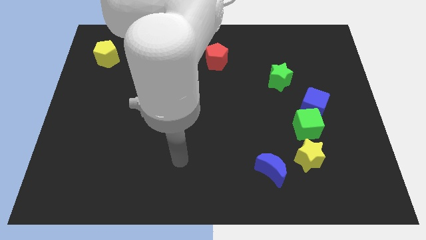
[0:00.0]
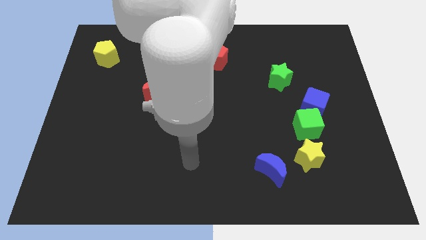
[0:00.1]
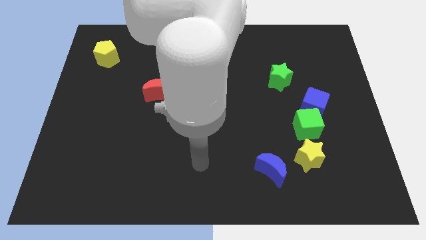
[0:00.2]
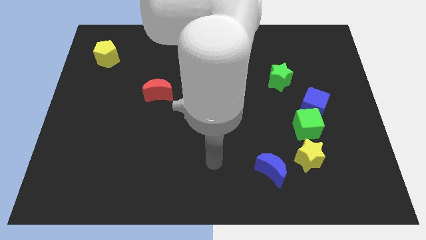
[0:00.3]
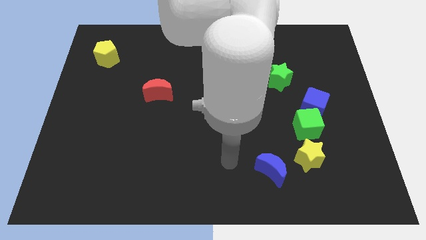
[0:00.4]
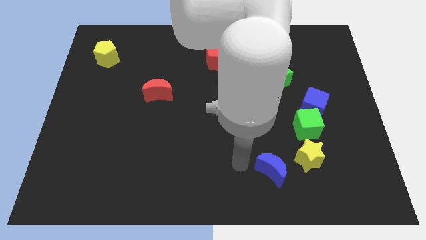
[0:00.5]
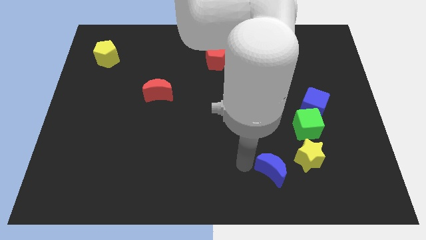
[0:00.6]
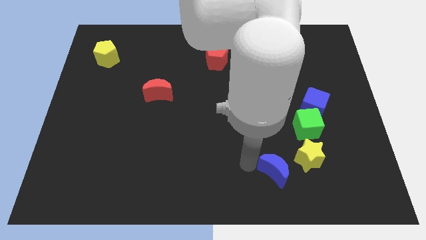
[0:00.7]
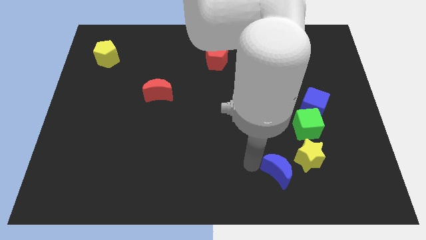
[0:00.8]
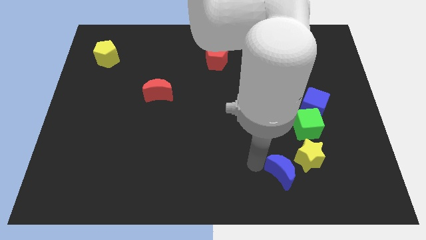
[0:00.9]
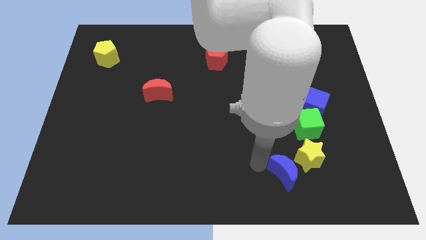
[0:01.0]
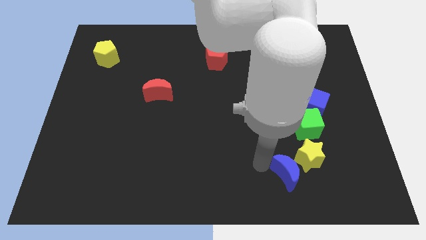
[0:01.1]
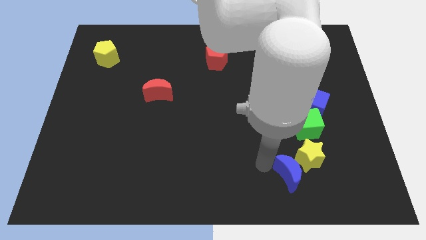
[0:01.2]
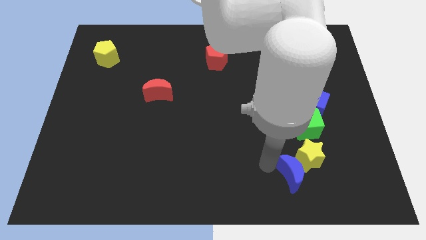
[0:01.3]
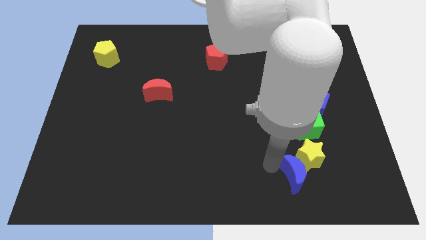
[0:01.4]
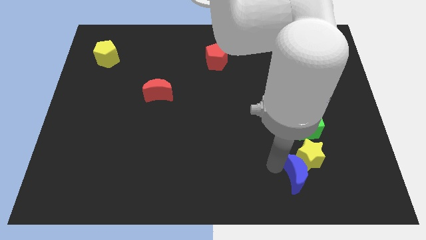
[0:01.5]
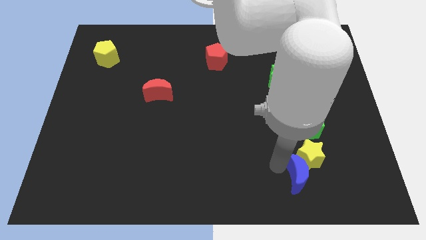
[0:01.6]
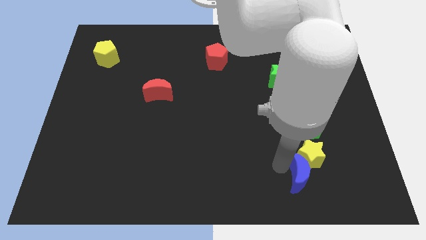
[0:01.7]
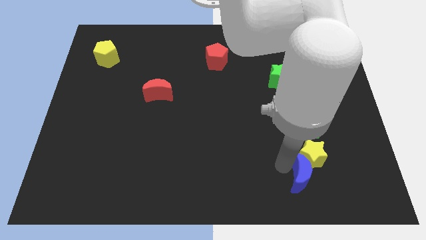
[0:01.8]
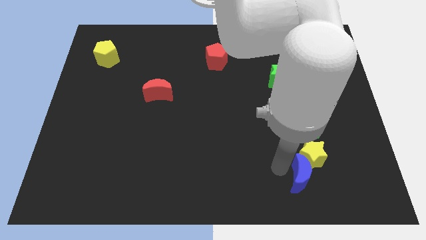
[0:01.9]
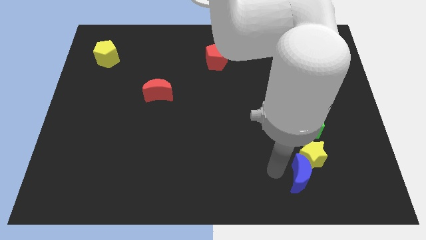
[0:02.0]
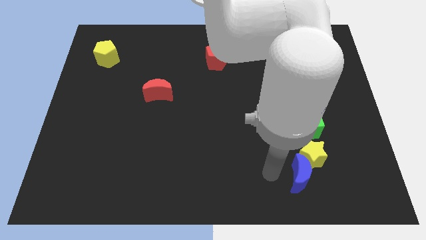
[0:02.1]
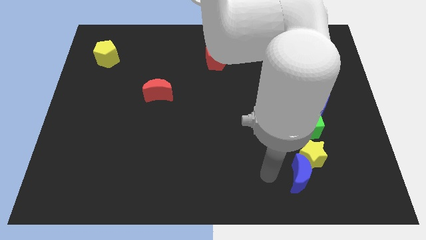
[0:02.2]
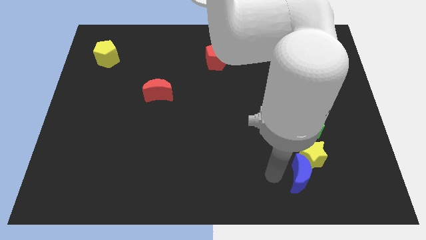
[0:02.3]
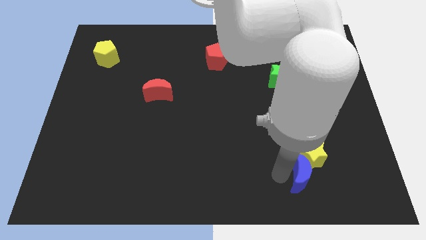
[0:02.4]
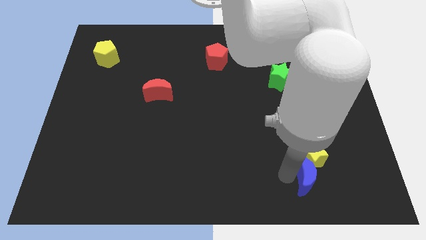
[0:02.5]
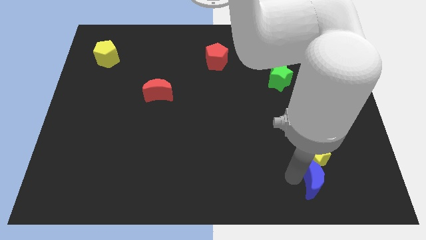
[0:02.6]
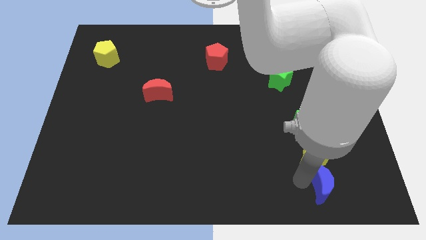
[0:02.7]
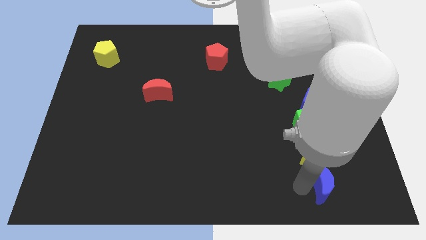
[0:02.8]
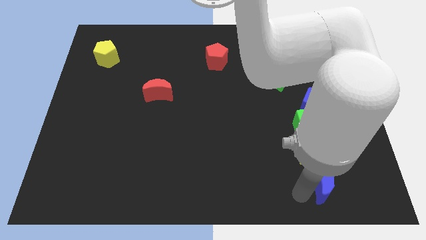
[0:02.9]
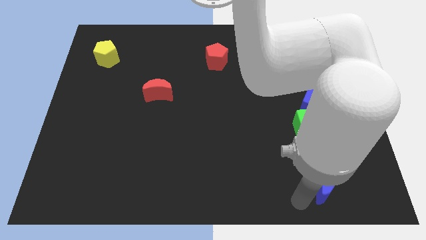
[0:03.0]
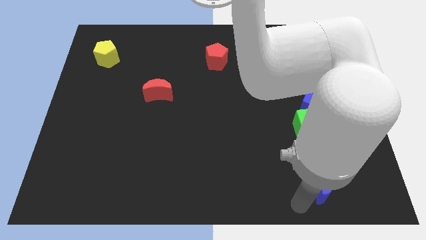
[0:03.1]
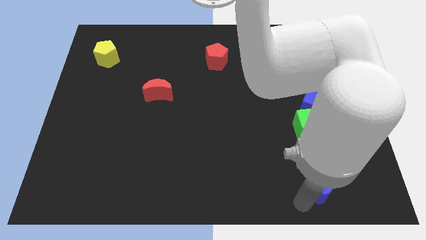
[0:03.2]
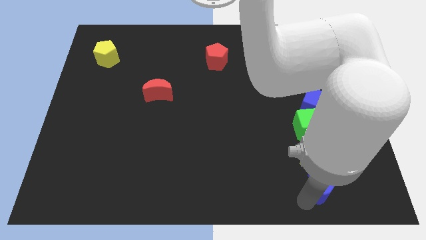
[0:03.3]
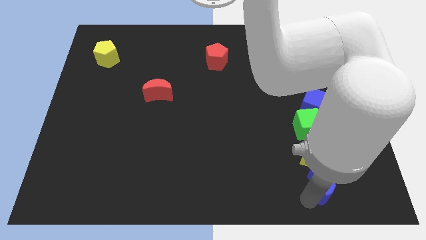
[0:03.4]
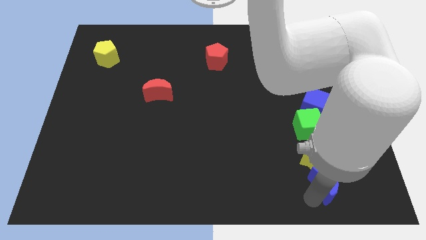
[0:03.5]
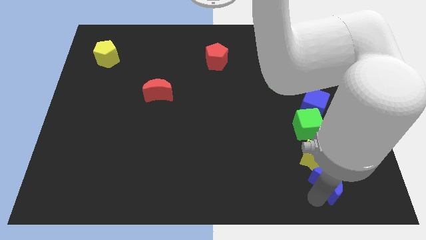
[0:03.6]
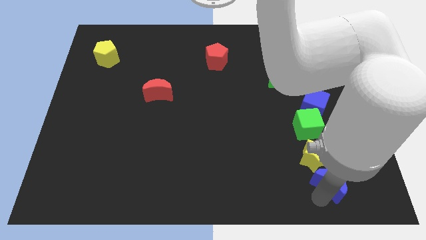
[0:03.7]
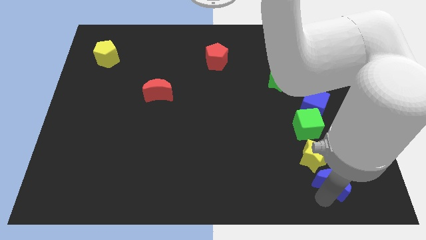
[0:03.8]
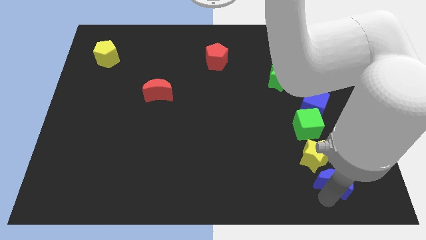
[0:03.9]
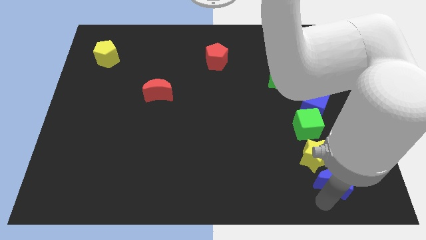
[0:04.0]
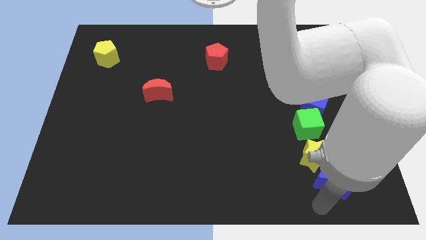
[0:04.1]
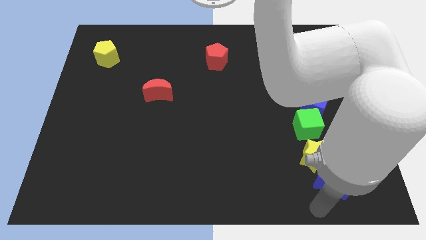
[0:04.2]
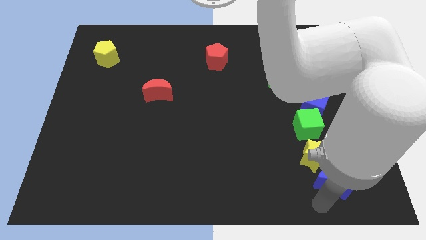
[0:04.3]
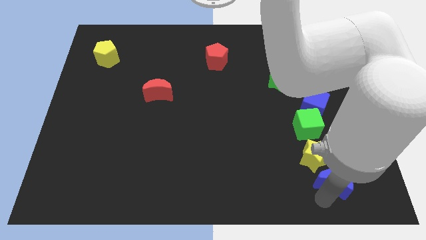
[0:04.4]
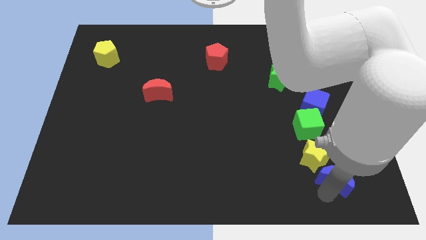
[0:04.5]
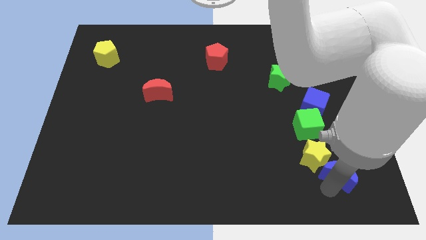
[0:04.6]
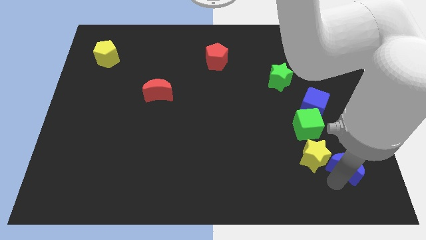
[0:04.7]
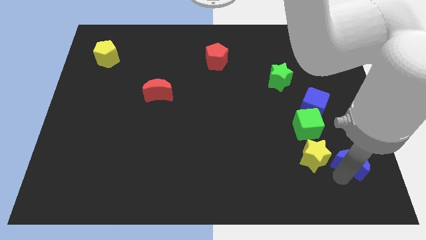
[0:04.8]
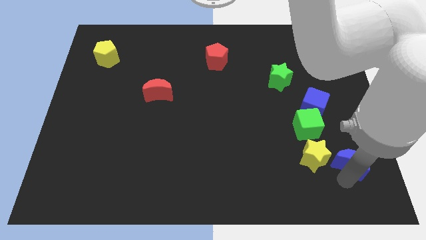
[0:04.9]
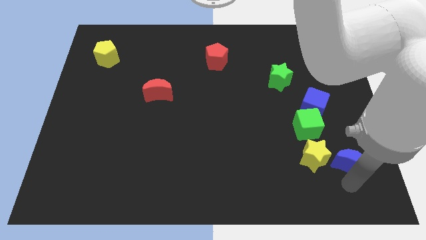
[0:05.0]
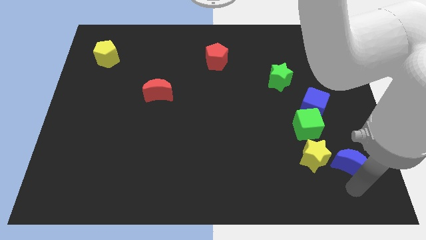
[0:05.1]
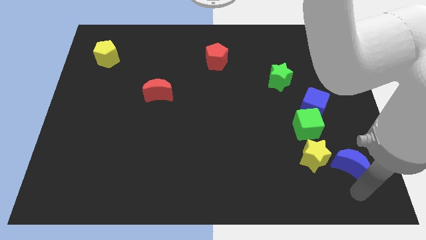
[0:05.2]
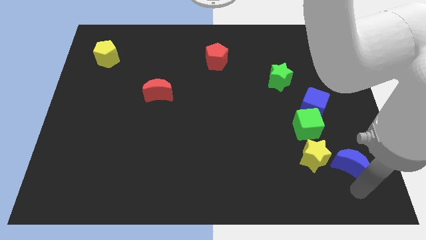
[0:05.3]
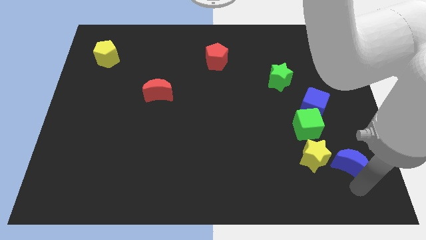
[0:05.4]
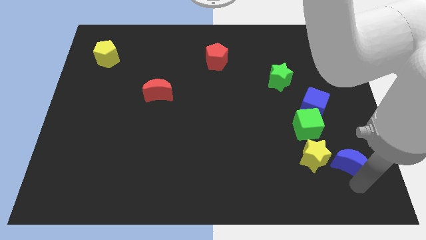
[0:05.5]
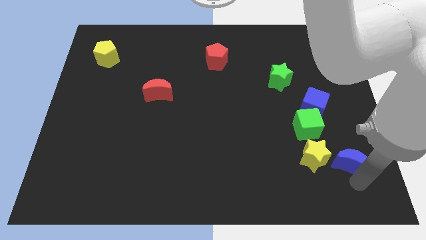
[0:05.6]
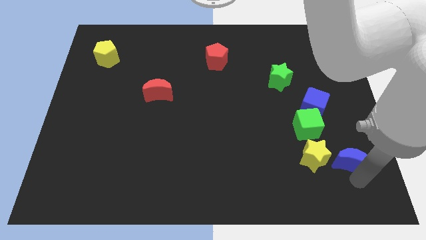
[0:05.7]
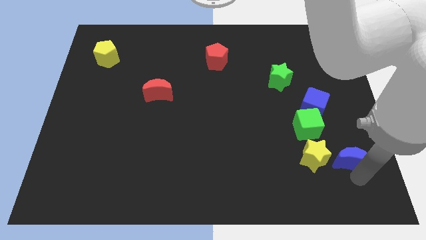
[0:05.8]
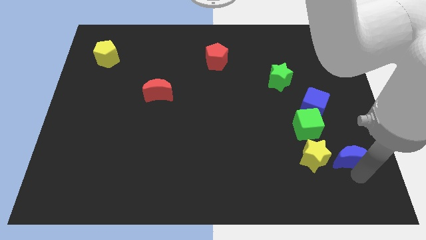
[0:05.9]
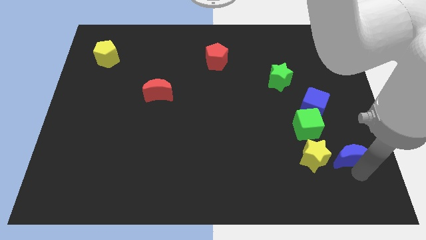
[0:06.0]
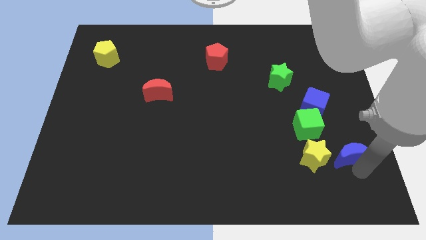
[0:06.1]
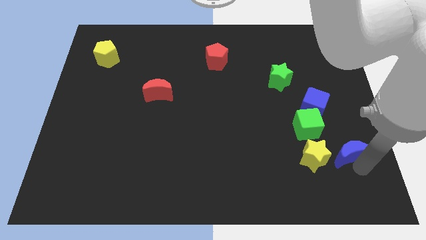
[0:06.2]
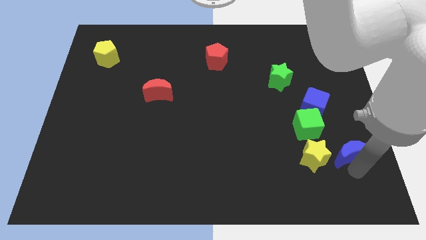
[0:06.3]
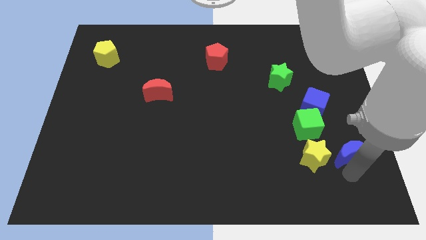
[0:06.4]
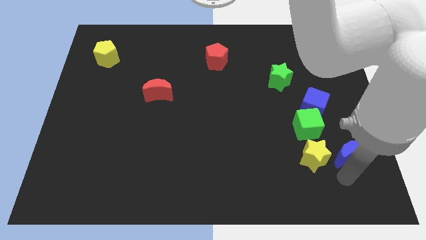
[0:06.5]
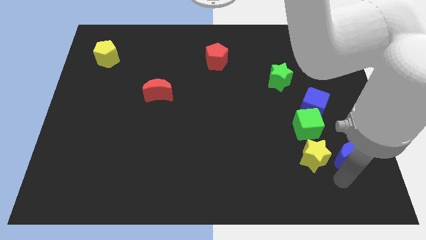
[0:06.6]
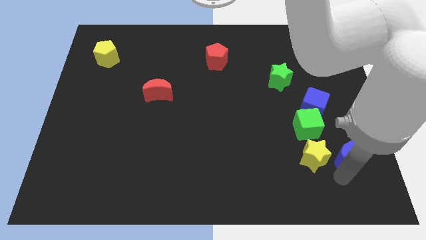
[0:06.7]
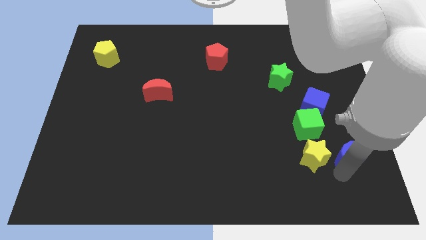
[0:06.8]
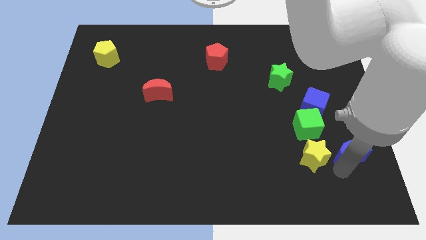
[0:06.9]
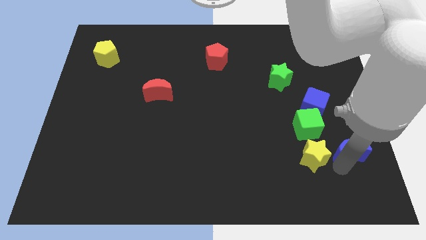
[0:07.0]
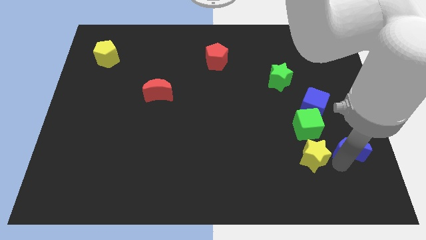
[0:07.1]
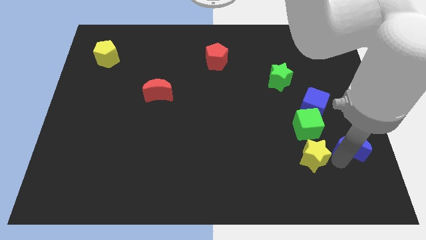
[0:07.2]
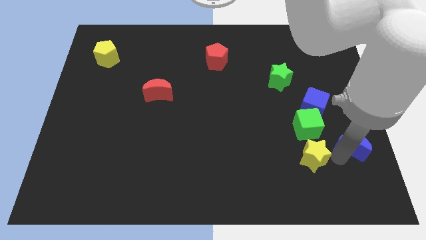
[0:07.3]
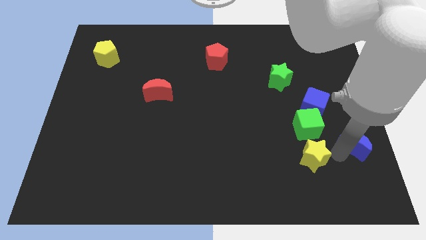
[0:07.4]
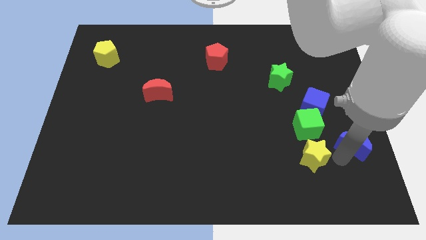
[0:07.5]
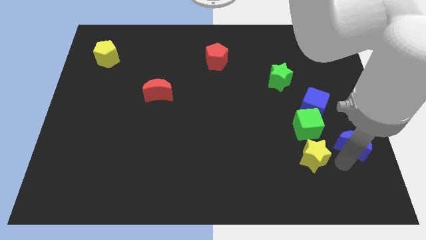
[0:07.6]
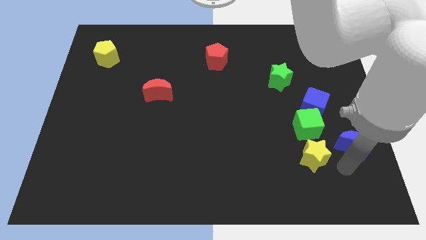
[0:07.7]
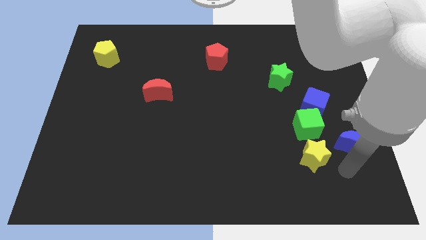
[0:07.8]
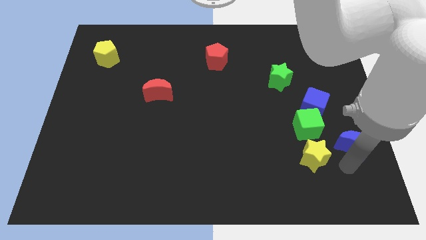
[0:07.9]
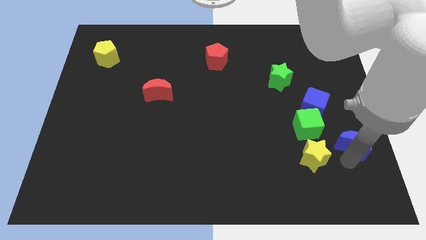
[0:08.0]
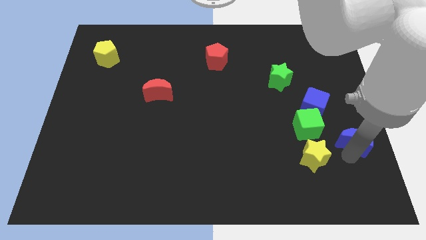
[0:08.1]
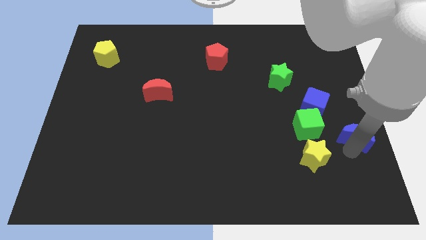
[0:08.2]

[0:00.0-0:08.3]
move the blue moon to the right side of the board
